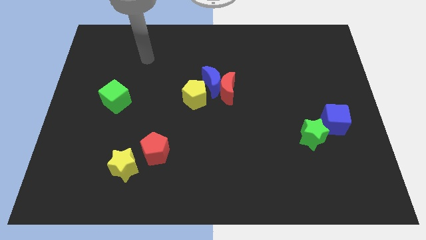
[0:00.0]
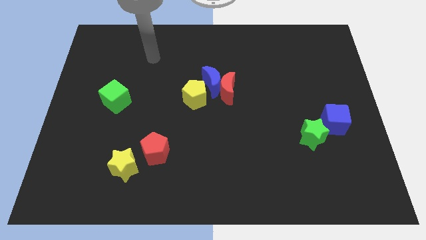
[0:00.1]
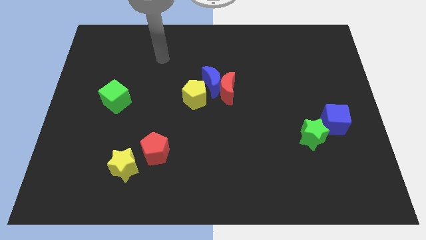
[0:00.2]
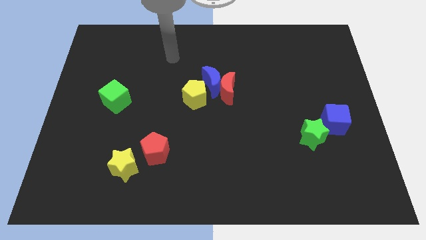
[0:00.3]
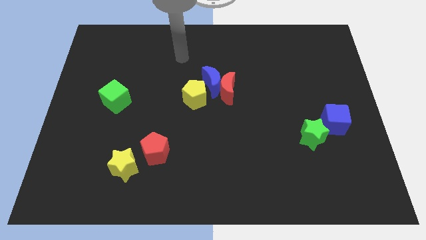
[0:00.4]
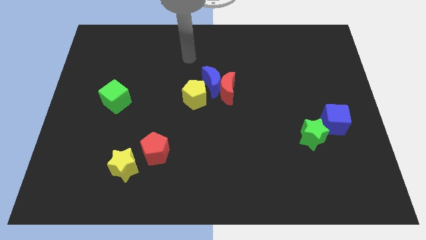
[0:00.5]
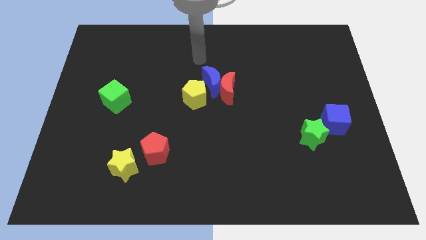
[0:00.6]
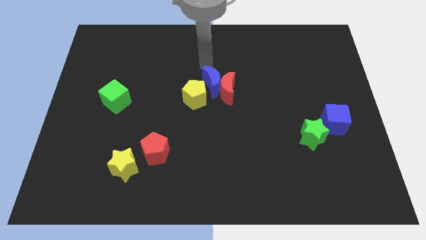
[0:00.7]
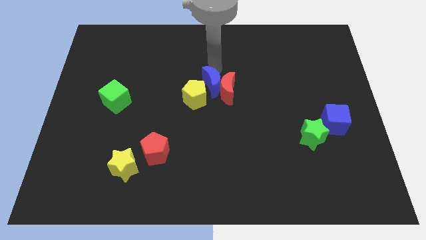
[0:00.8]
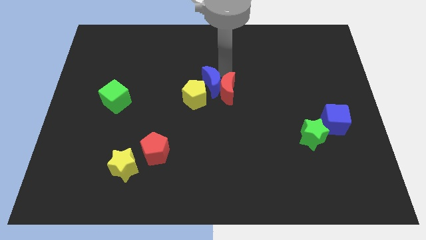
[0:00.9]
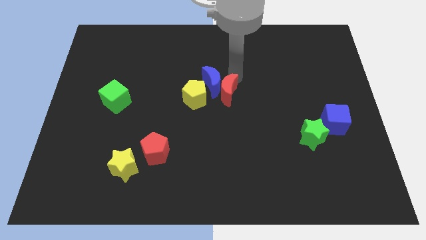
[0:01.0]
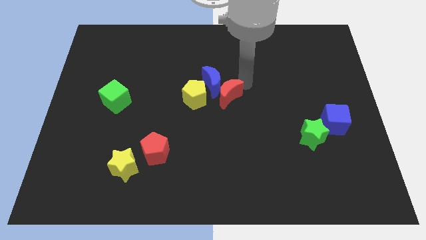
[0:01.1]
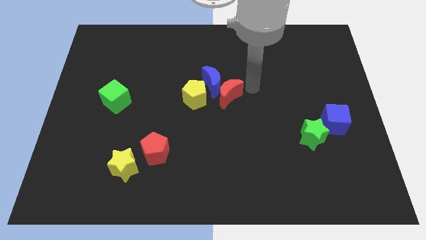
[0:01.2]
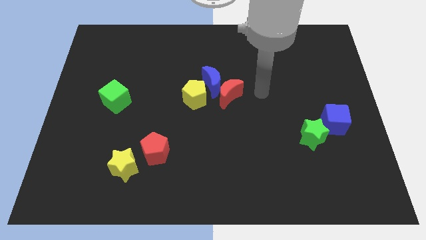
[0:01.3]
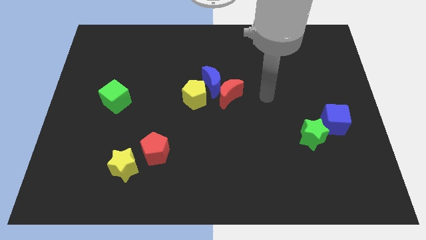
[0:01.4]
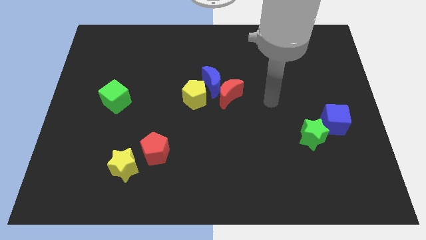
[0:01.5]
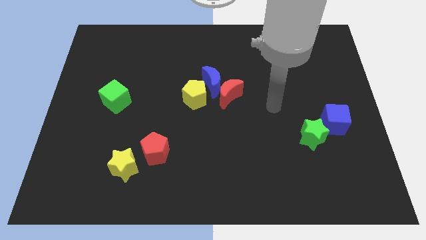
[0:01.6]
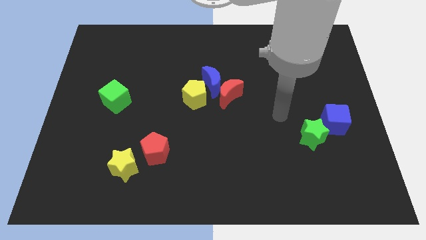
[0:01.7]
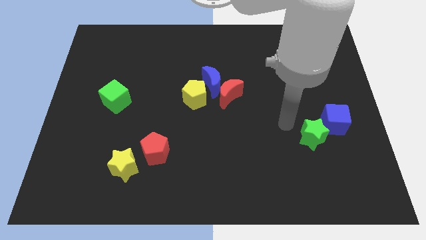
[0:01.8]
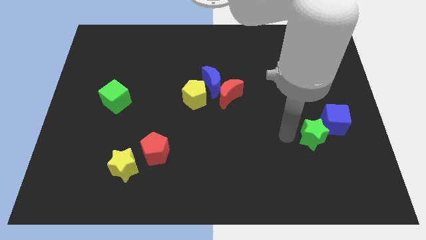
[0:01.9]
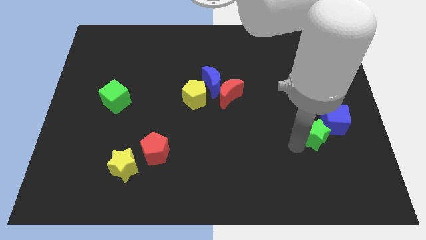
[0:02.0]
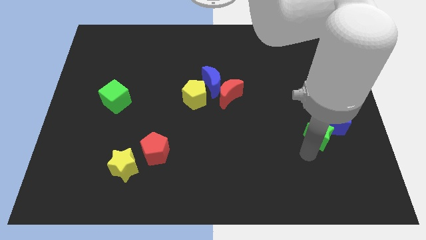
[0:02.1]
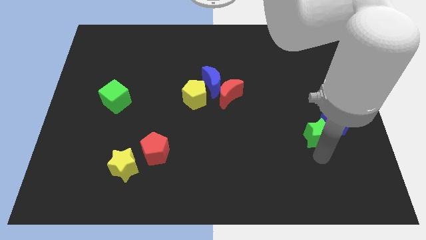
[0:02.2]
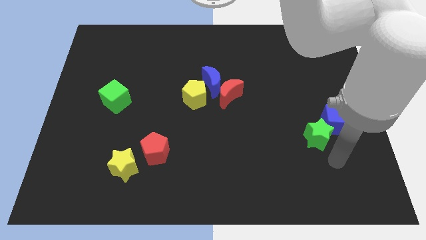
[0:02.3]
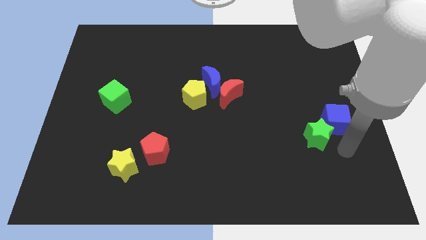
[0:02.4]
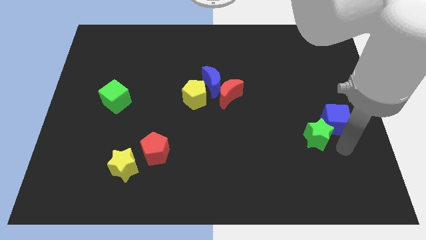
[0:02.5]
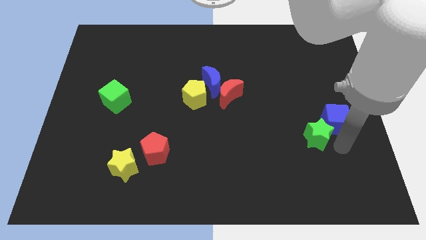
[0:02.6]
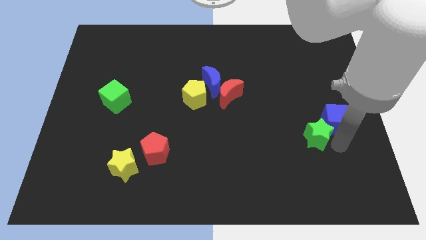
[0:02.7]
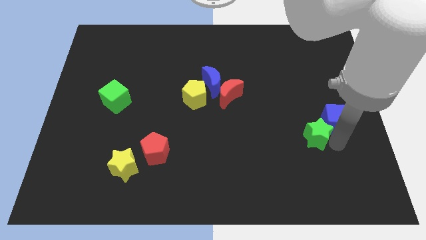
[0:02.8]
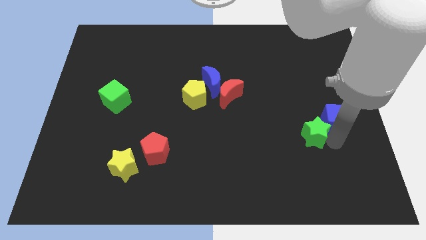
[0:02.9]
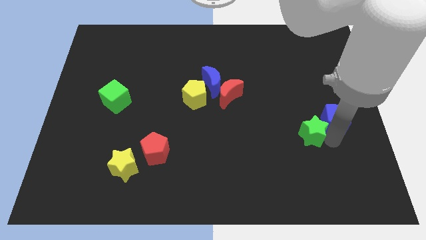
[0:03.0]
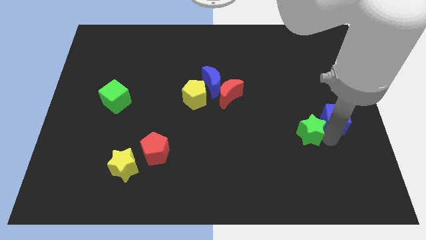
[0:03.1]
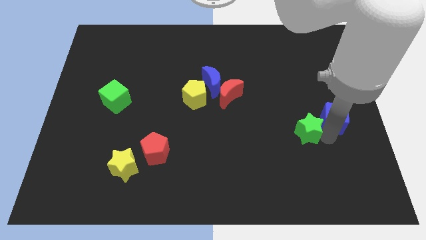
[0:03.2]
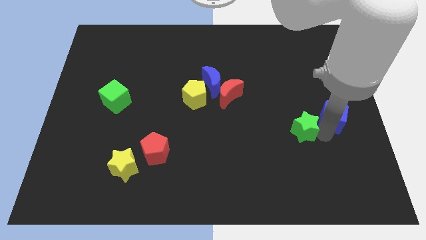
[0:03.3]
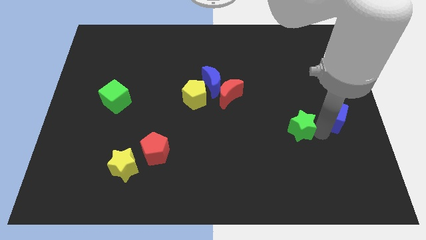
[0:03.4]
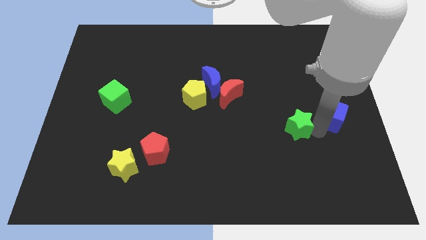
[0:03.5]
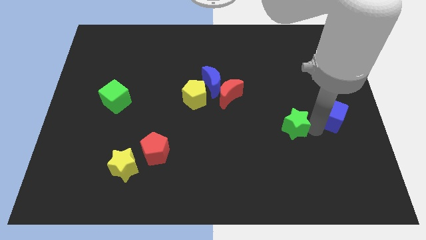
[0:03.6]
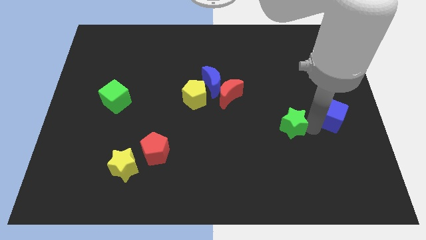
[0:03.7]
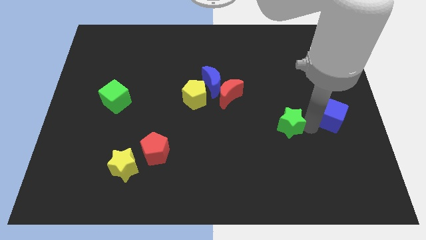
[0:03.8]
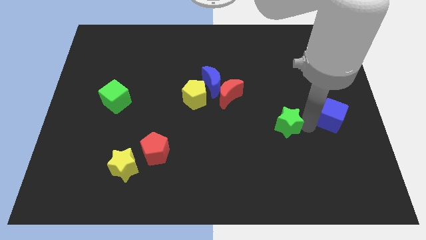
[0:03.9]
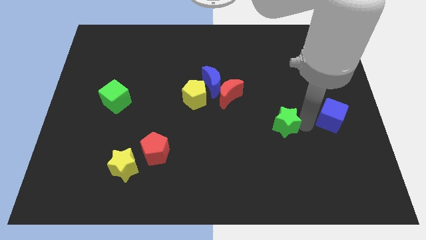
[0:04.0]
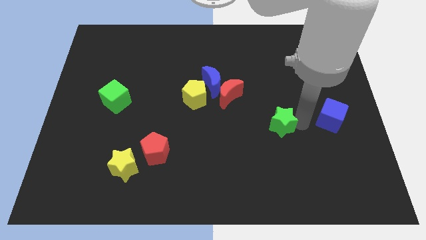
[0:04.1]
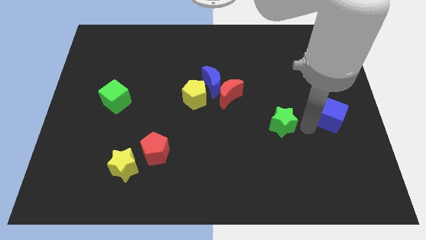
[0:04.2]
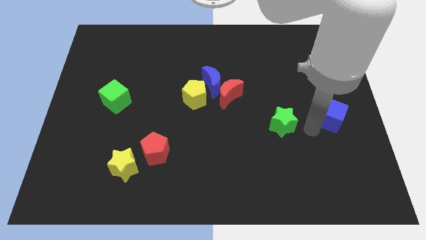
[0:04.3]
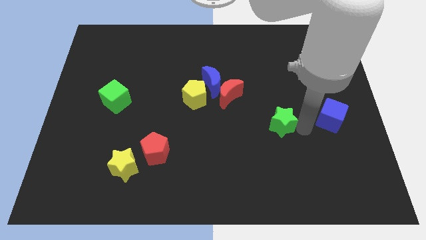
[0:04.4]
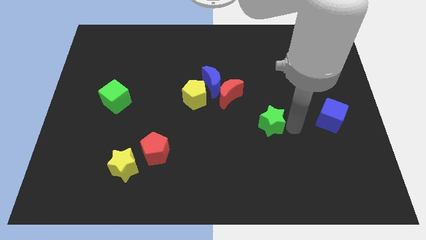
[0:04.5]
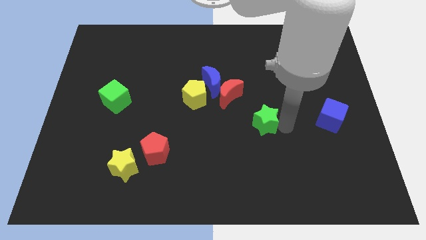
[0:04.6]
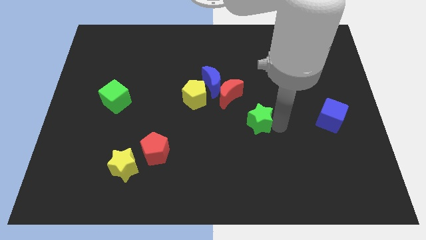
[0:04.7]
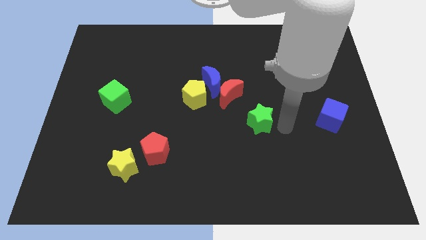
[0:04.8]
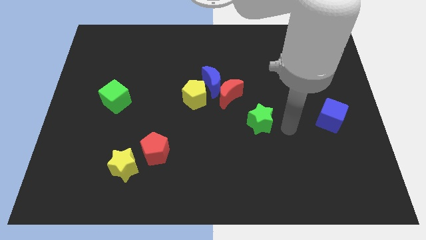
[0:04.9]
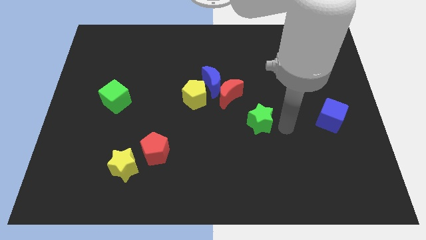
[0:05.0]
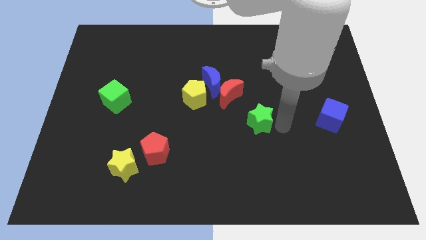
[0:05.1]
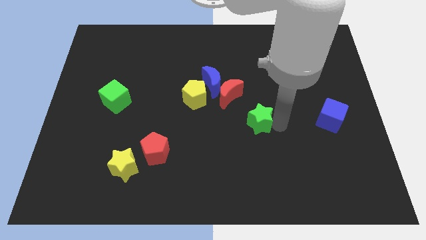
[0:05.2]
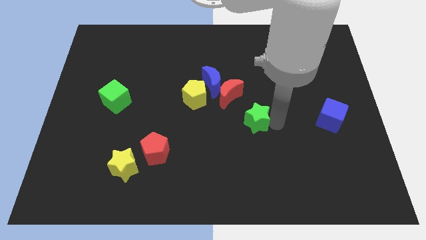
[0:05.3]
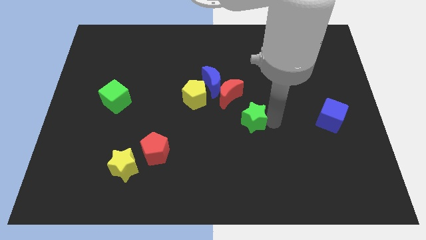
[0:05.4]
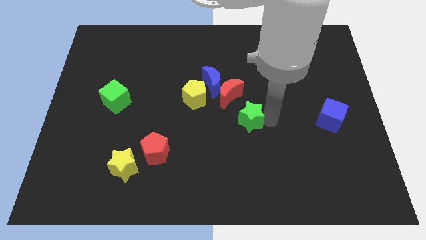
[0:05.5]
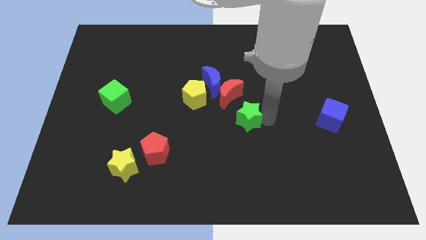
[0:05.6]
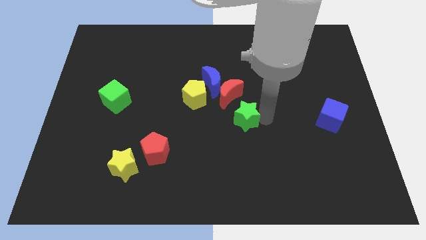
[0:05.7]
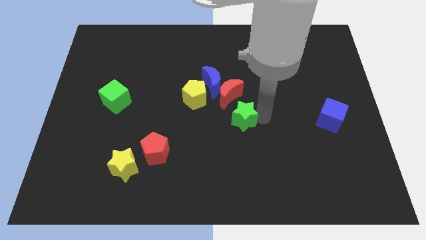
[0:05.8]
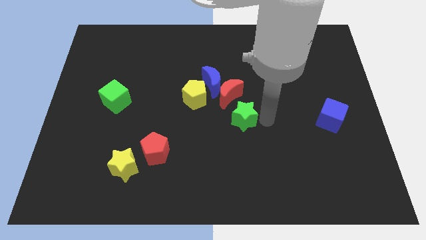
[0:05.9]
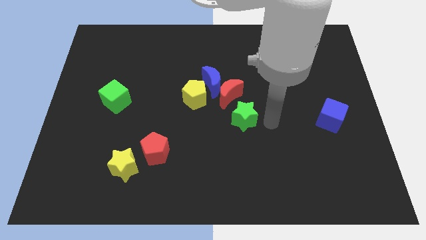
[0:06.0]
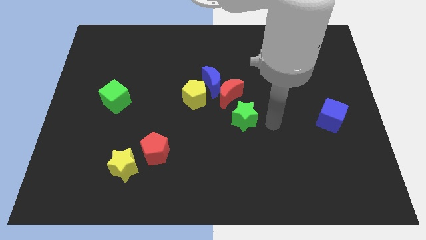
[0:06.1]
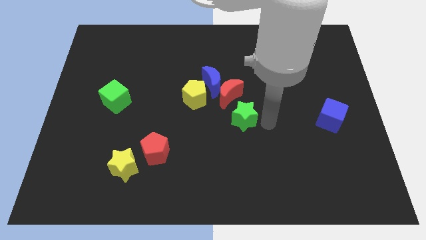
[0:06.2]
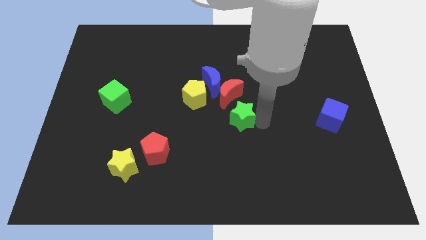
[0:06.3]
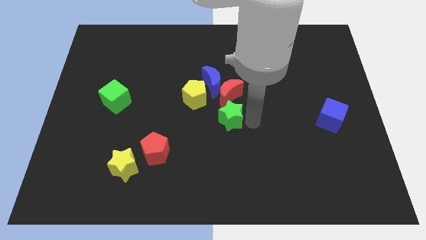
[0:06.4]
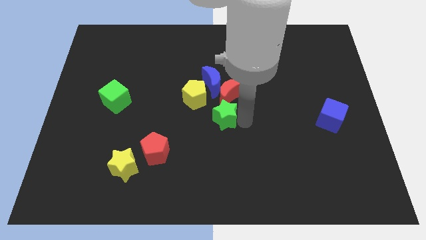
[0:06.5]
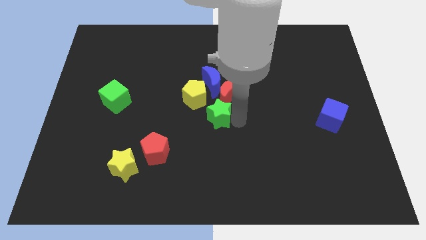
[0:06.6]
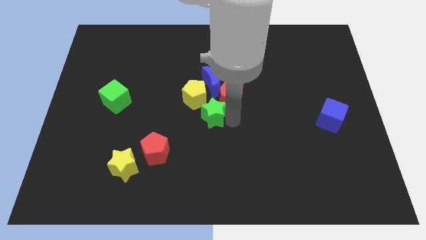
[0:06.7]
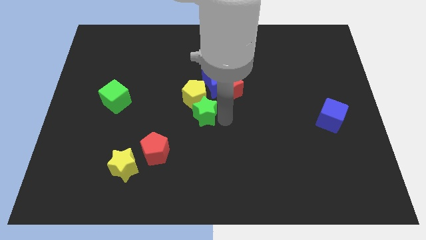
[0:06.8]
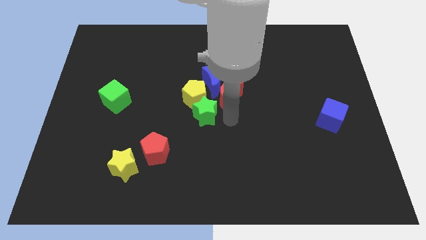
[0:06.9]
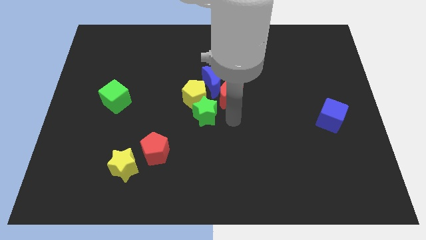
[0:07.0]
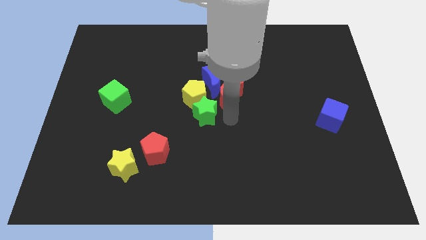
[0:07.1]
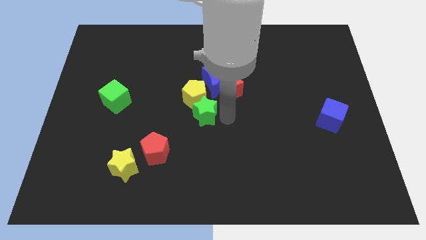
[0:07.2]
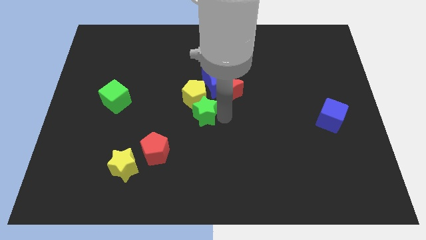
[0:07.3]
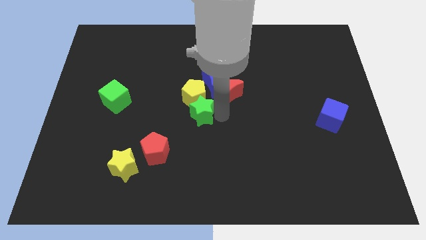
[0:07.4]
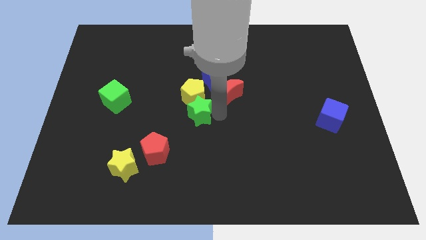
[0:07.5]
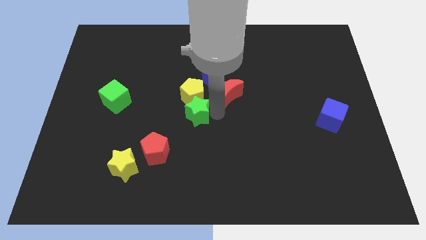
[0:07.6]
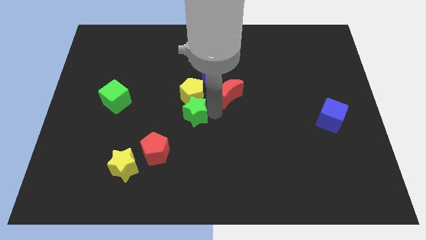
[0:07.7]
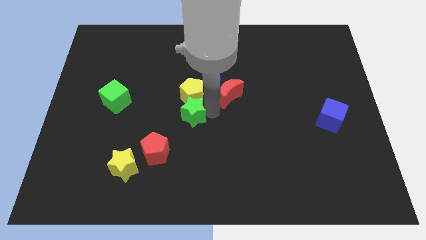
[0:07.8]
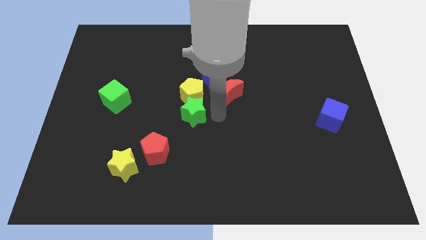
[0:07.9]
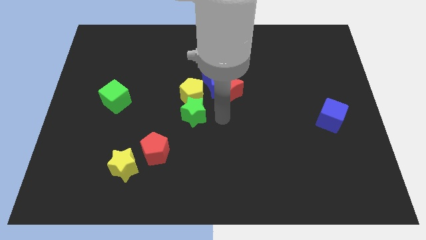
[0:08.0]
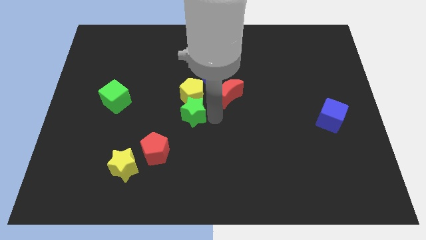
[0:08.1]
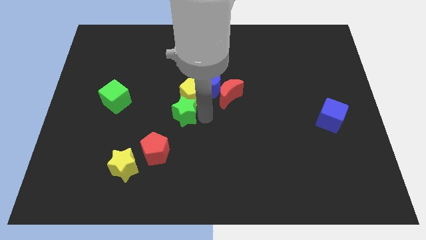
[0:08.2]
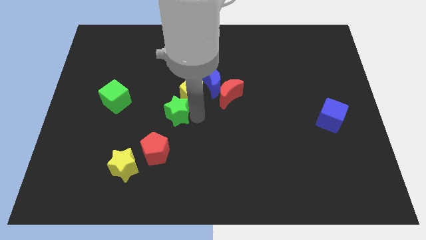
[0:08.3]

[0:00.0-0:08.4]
move the green star above the red pentagon
